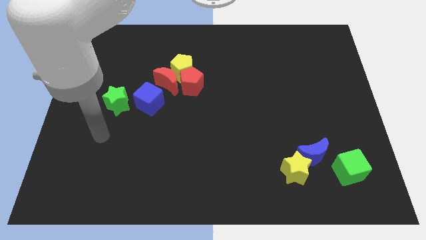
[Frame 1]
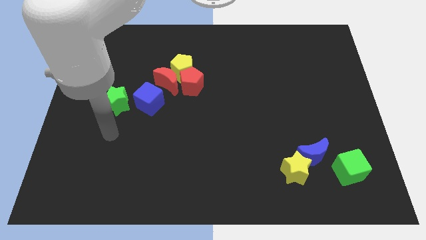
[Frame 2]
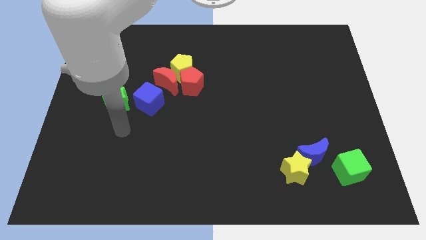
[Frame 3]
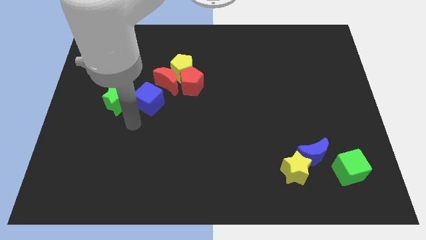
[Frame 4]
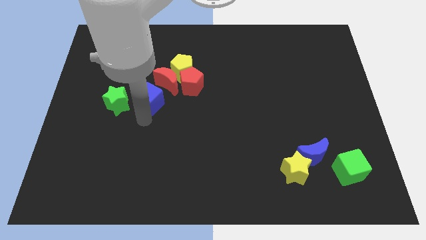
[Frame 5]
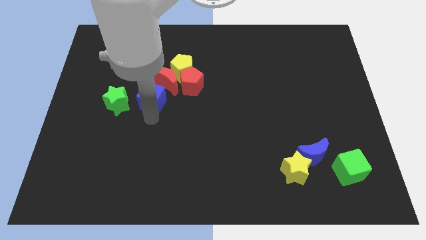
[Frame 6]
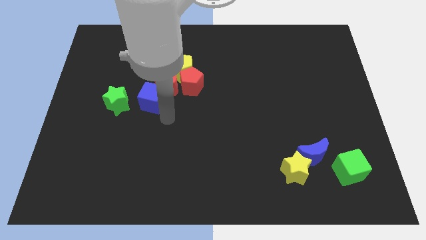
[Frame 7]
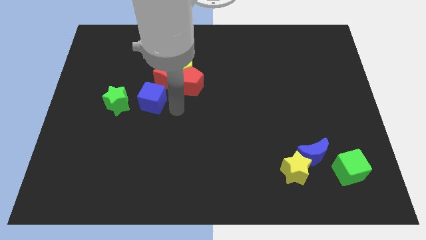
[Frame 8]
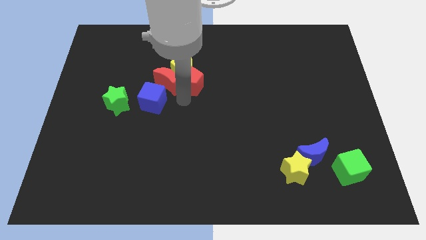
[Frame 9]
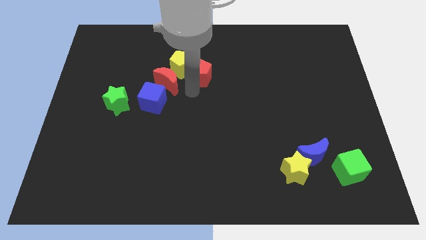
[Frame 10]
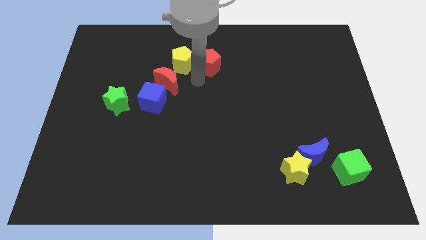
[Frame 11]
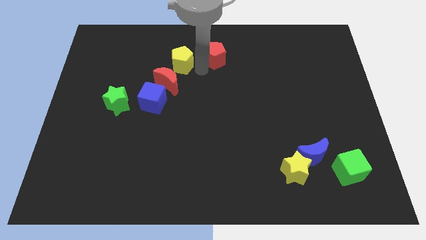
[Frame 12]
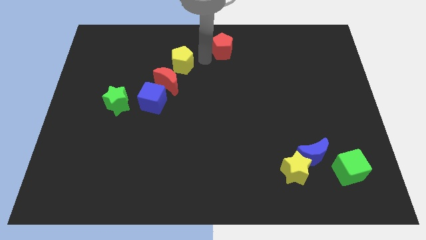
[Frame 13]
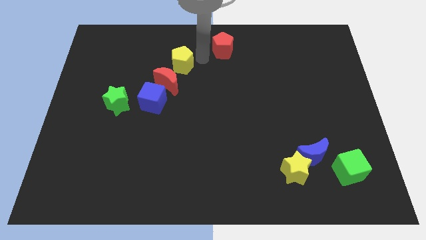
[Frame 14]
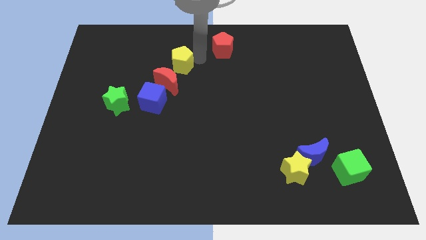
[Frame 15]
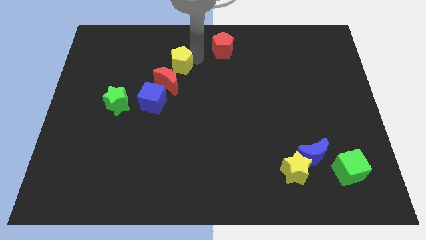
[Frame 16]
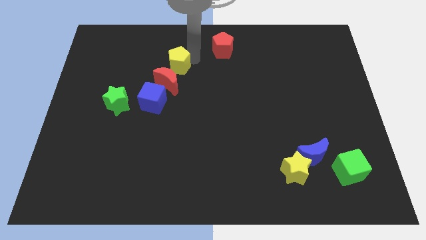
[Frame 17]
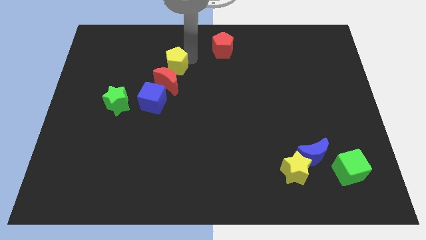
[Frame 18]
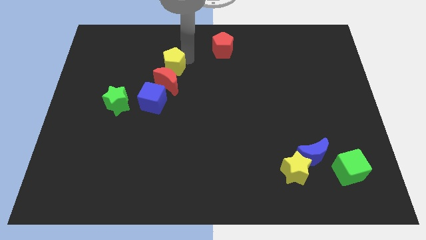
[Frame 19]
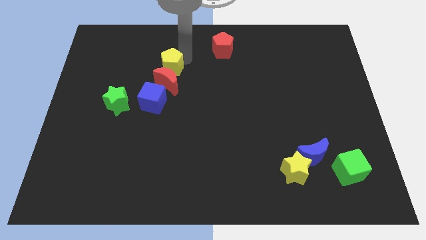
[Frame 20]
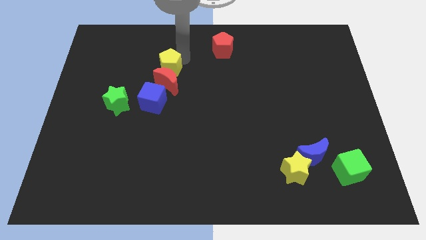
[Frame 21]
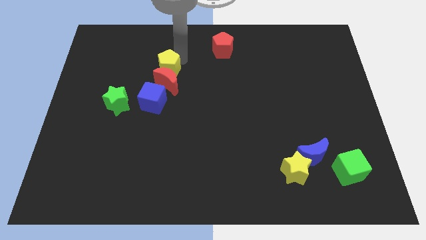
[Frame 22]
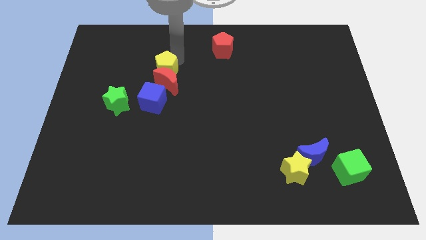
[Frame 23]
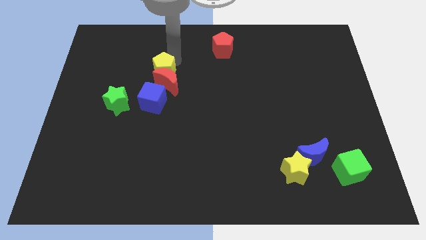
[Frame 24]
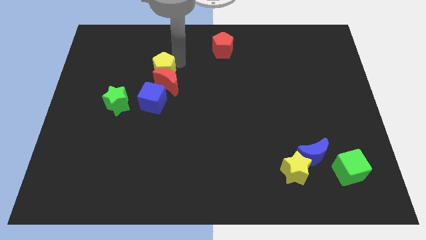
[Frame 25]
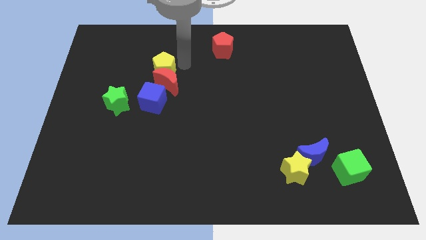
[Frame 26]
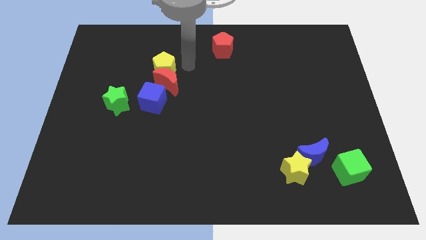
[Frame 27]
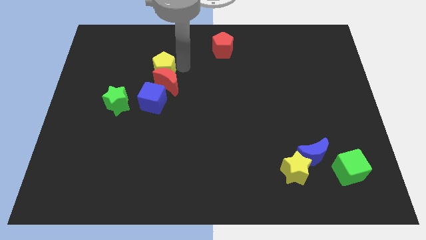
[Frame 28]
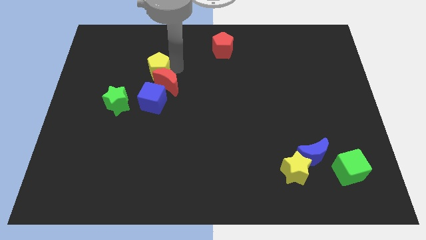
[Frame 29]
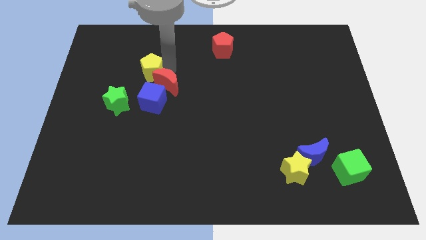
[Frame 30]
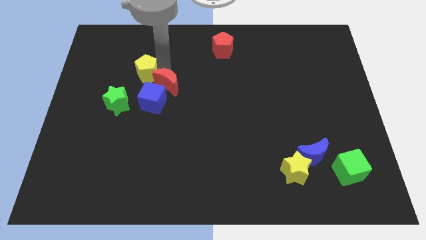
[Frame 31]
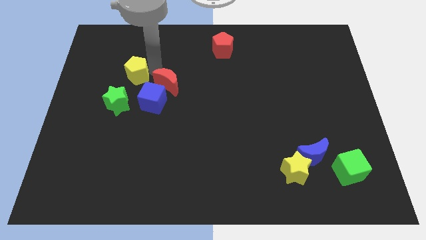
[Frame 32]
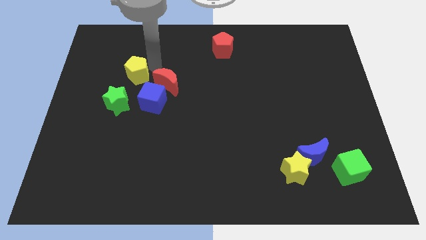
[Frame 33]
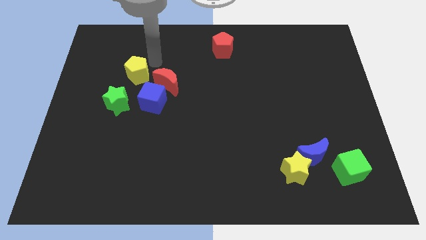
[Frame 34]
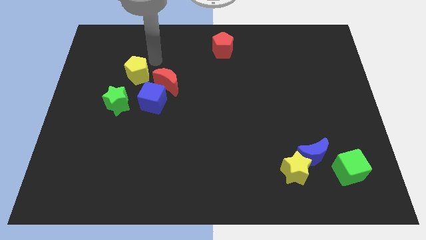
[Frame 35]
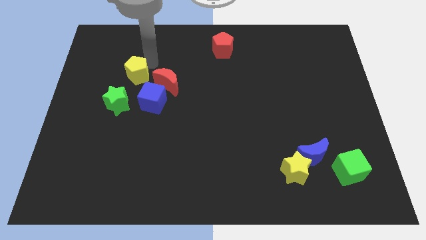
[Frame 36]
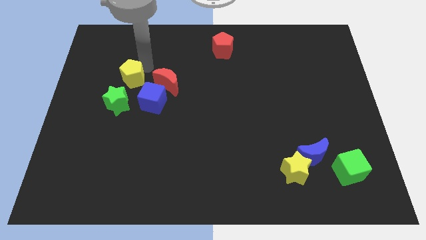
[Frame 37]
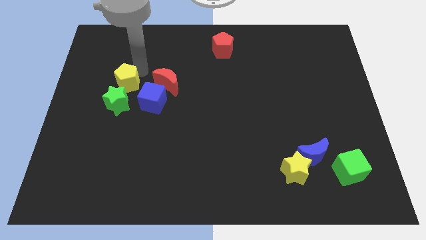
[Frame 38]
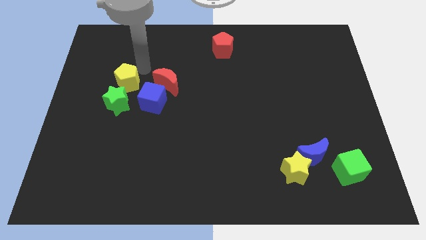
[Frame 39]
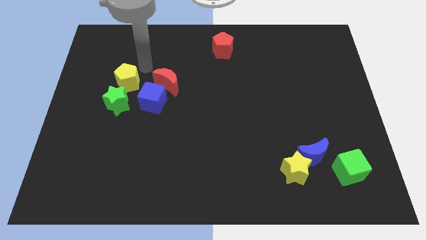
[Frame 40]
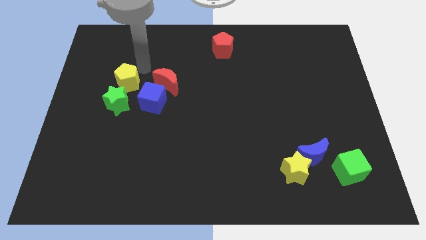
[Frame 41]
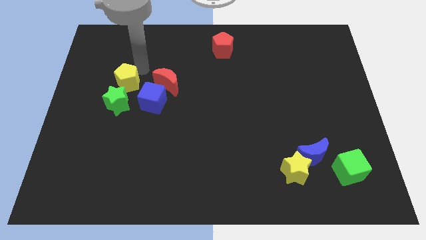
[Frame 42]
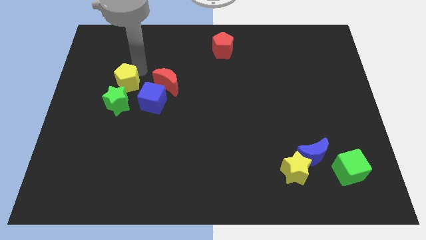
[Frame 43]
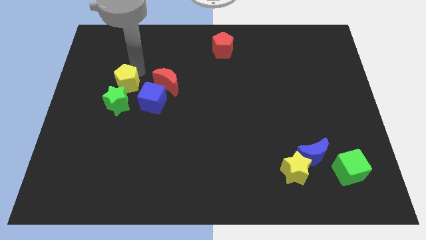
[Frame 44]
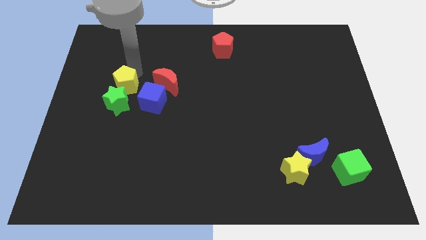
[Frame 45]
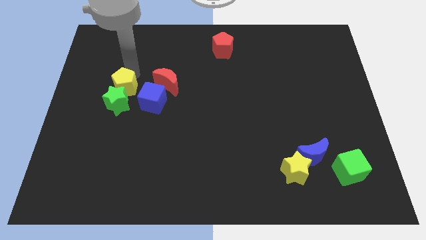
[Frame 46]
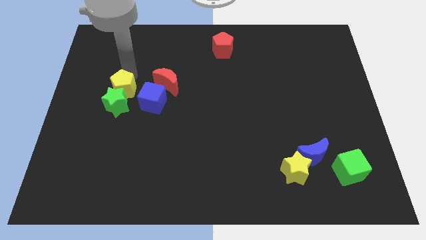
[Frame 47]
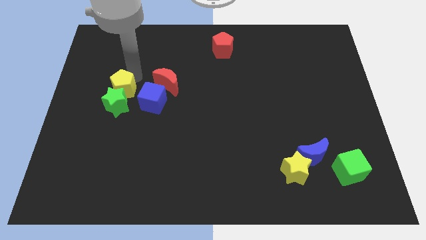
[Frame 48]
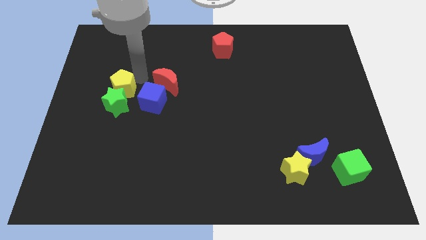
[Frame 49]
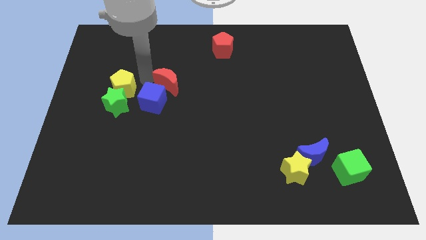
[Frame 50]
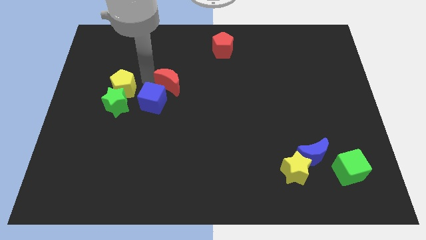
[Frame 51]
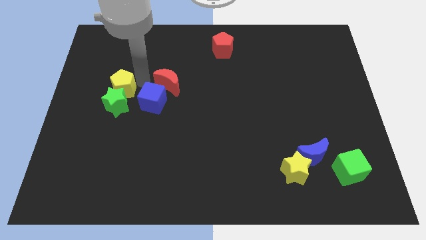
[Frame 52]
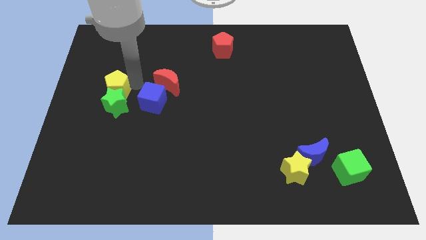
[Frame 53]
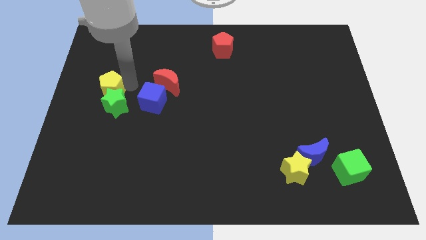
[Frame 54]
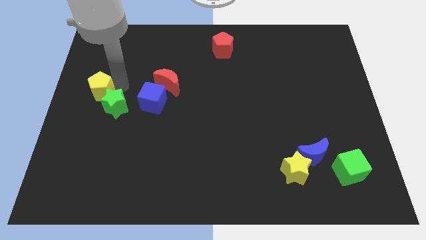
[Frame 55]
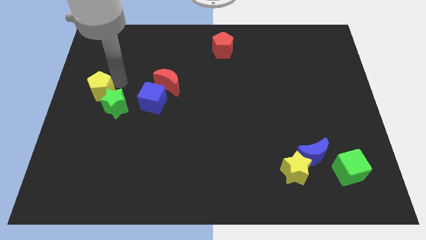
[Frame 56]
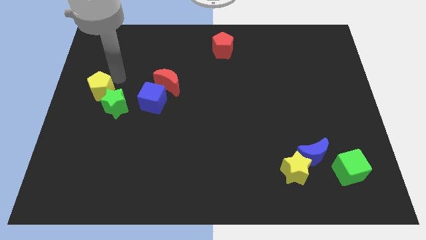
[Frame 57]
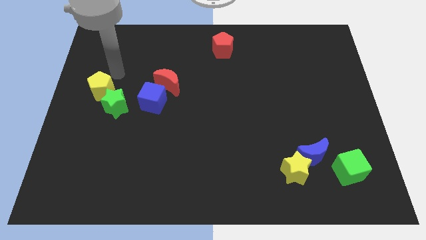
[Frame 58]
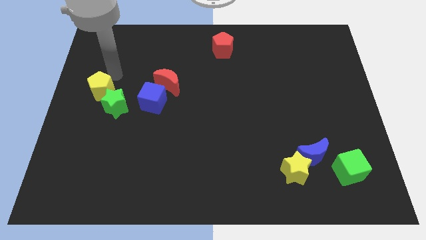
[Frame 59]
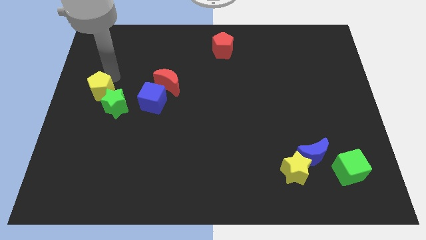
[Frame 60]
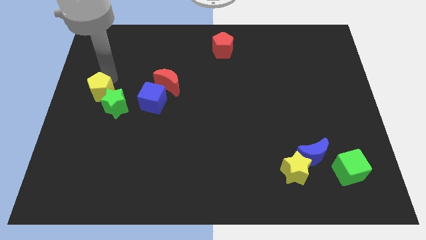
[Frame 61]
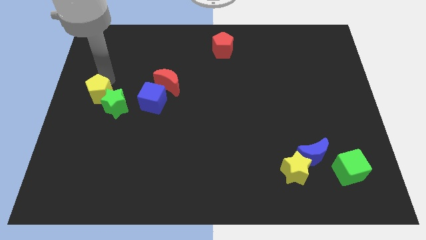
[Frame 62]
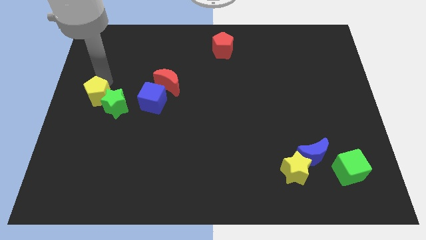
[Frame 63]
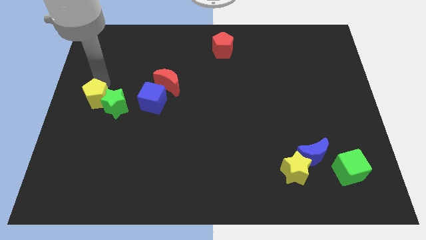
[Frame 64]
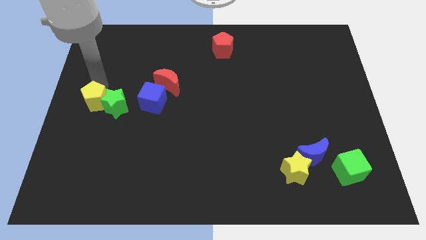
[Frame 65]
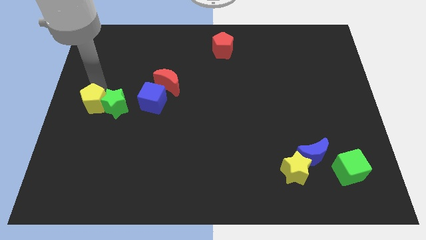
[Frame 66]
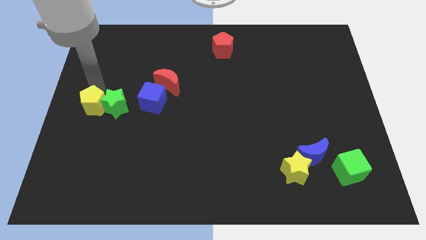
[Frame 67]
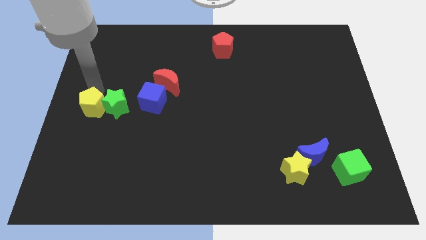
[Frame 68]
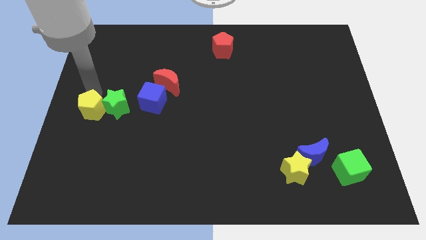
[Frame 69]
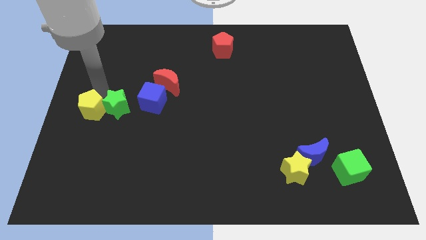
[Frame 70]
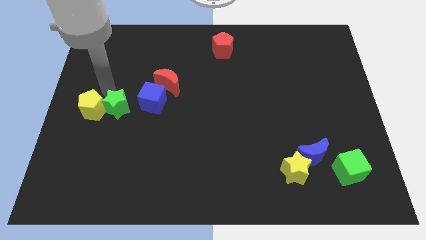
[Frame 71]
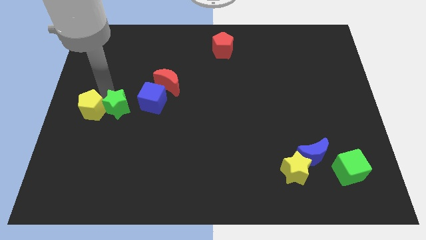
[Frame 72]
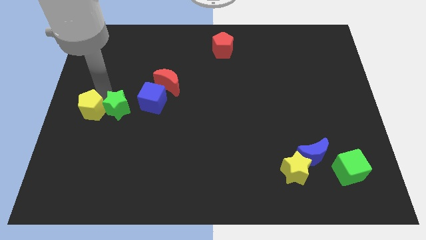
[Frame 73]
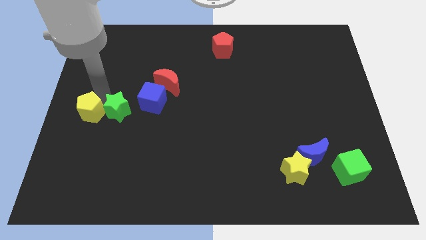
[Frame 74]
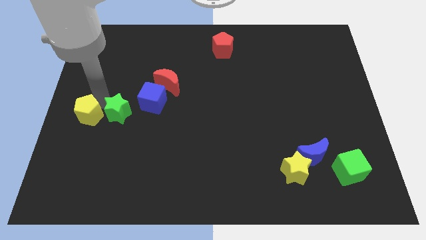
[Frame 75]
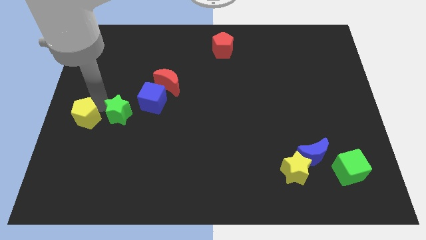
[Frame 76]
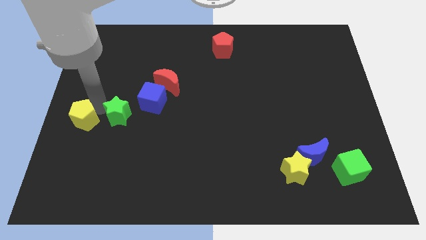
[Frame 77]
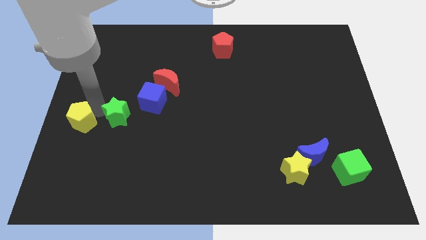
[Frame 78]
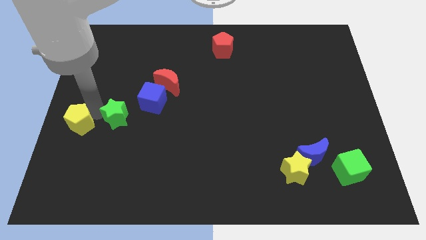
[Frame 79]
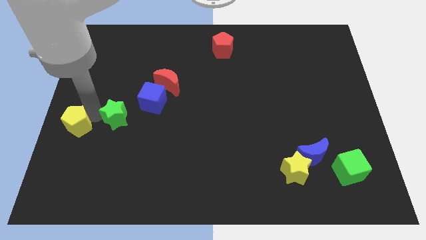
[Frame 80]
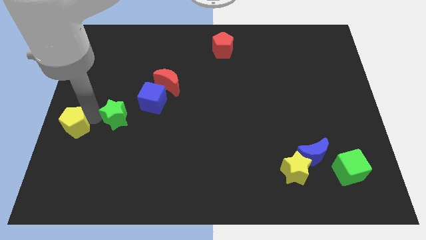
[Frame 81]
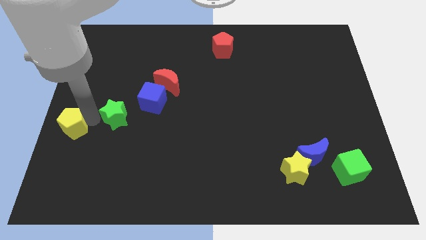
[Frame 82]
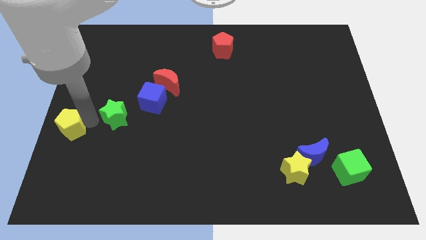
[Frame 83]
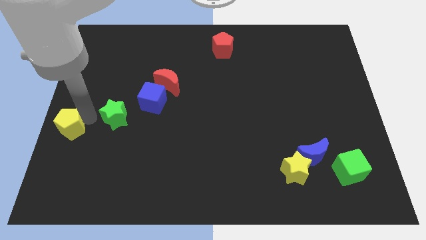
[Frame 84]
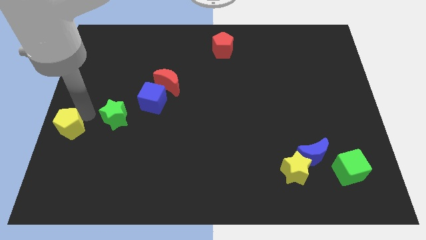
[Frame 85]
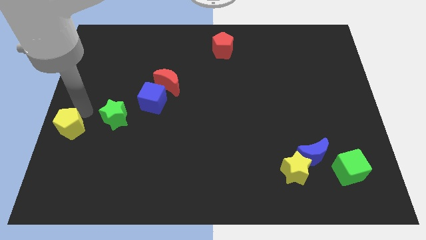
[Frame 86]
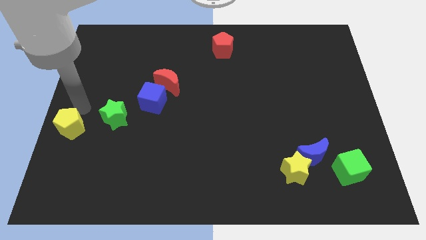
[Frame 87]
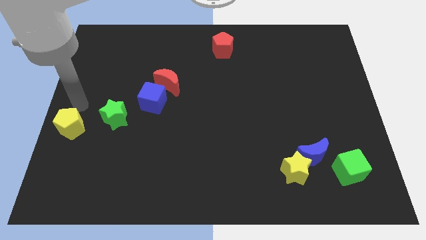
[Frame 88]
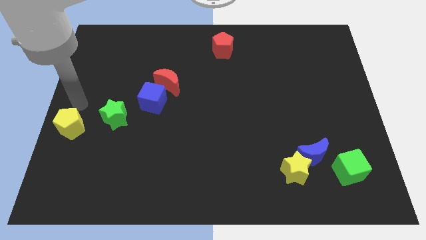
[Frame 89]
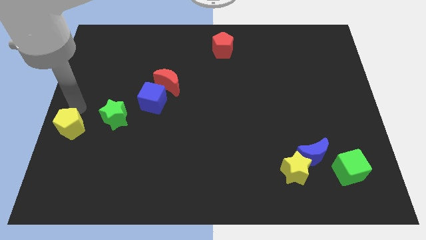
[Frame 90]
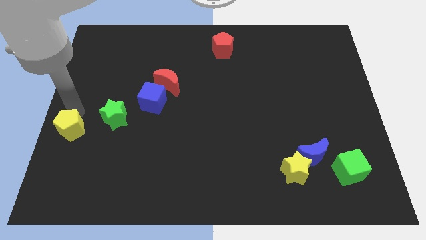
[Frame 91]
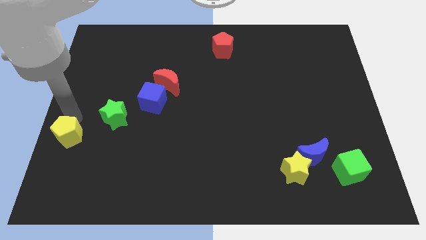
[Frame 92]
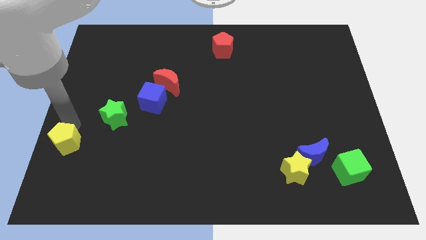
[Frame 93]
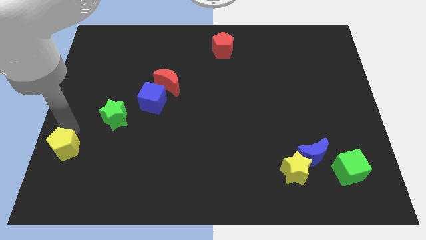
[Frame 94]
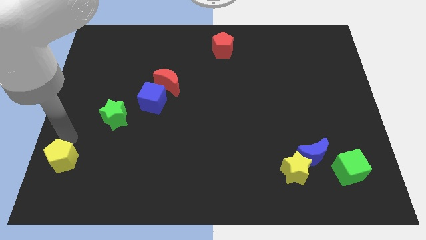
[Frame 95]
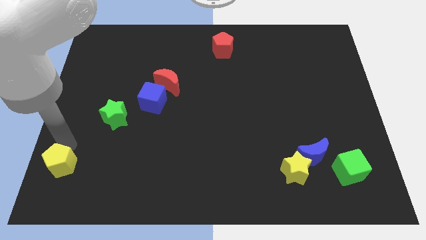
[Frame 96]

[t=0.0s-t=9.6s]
move the yellow pentagon to the bottom left corner
